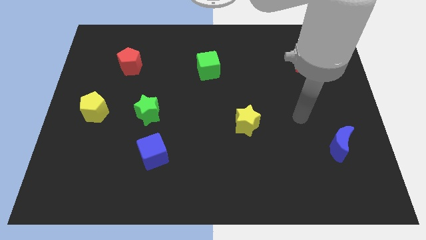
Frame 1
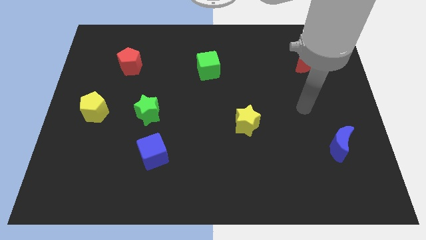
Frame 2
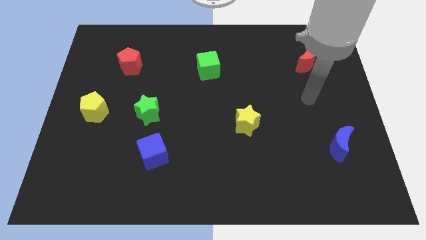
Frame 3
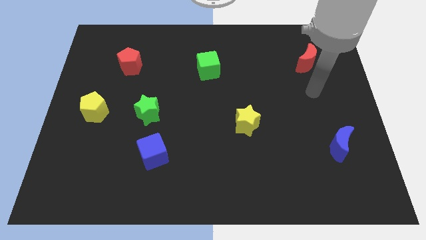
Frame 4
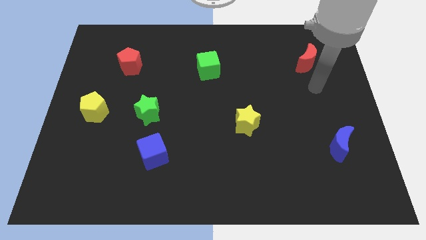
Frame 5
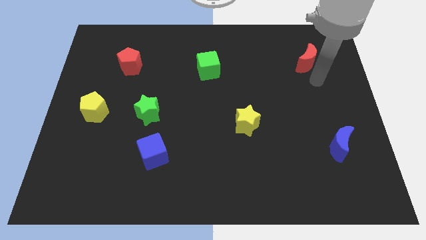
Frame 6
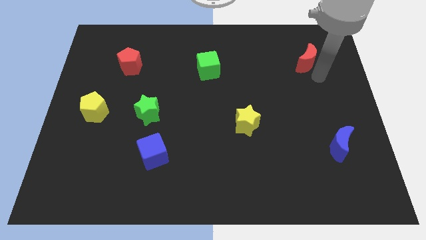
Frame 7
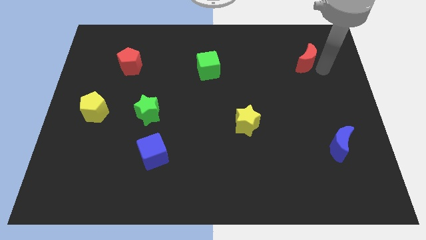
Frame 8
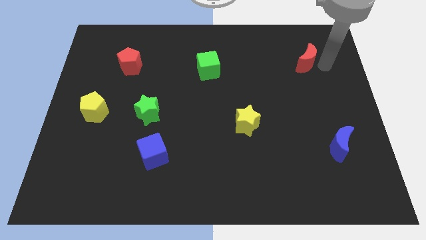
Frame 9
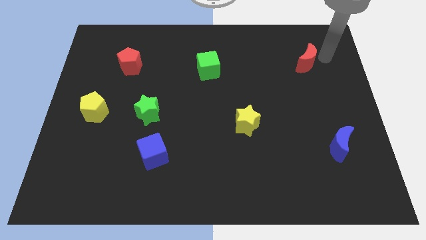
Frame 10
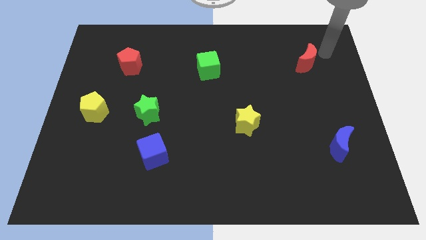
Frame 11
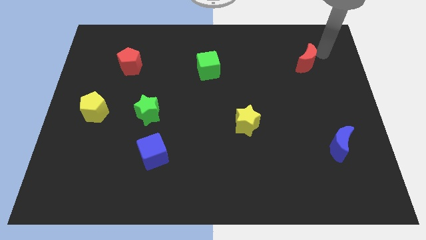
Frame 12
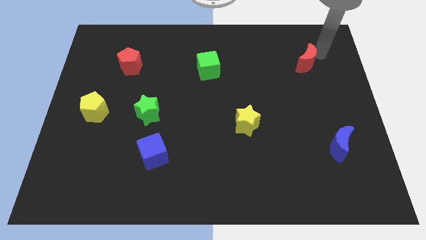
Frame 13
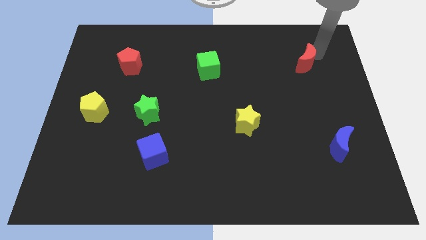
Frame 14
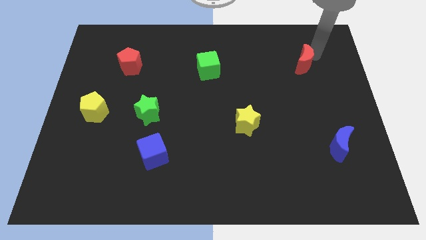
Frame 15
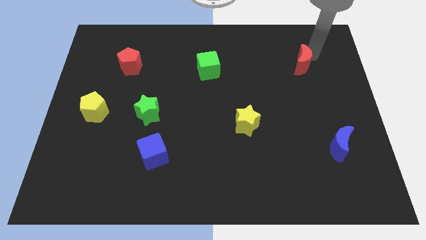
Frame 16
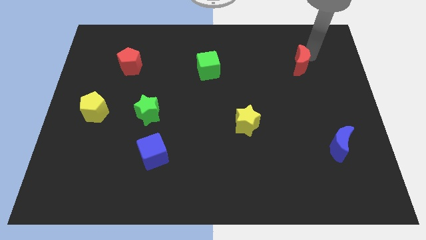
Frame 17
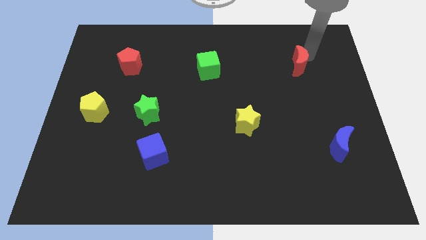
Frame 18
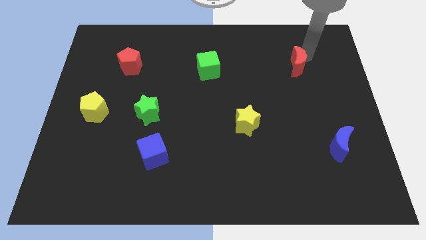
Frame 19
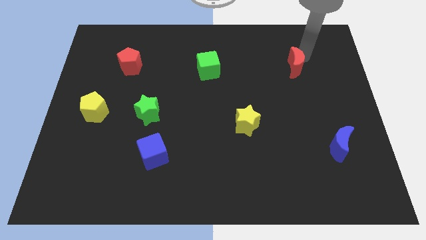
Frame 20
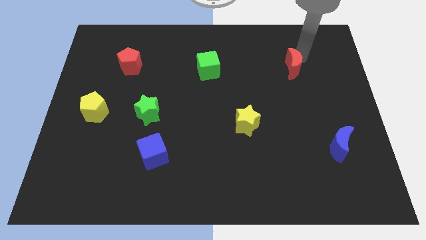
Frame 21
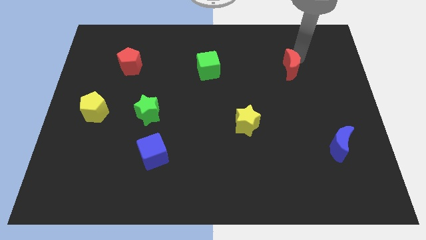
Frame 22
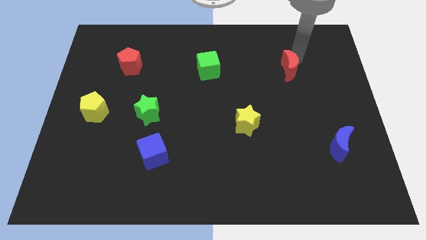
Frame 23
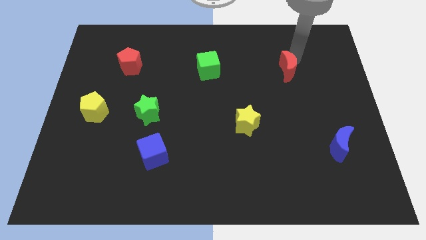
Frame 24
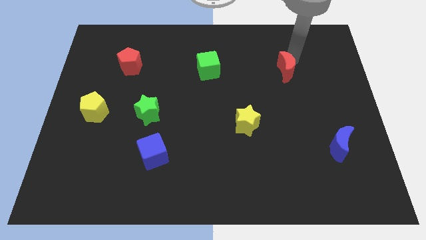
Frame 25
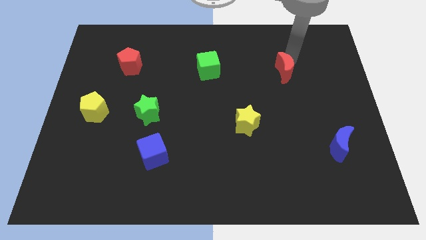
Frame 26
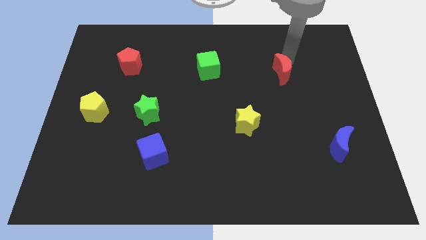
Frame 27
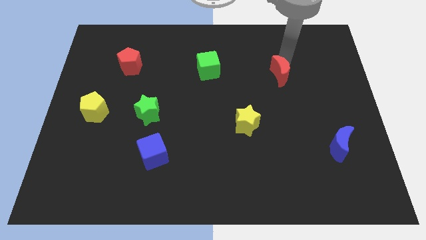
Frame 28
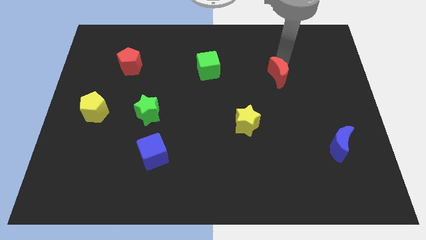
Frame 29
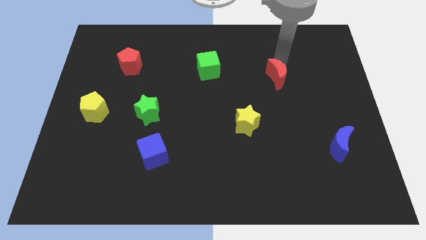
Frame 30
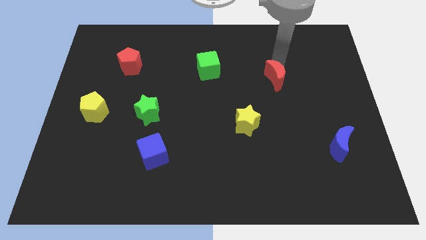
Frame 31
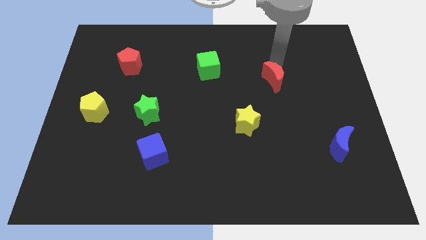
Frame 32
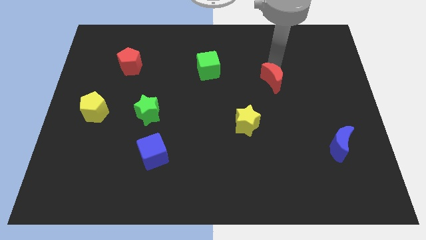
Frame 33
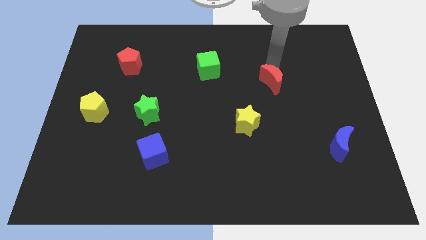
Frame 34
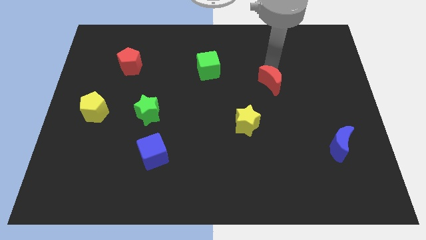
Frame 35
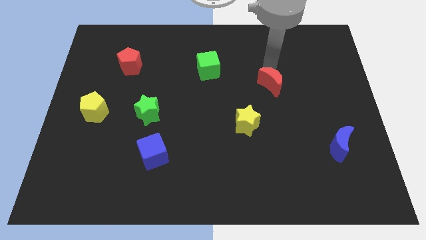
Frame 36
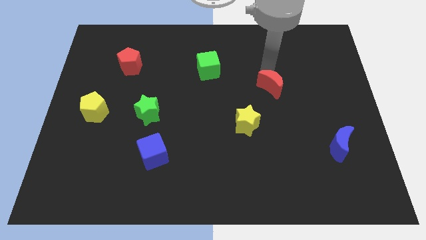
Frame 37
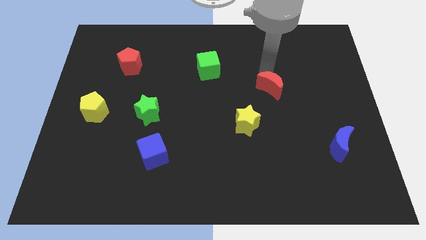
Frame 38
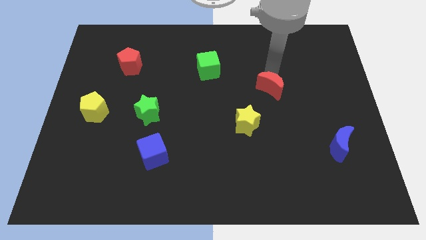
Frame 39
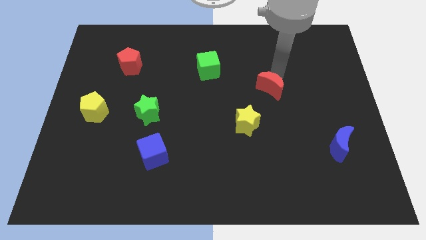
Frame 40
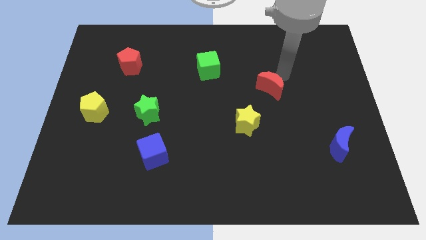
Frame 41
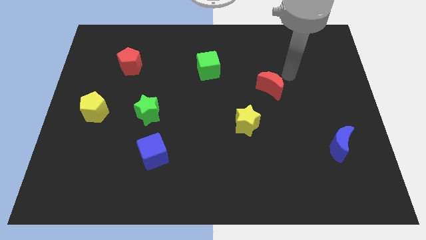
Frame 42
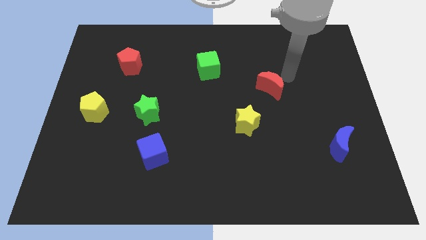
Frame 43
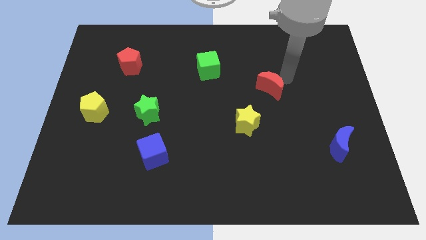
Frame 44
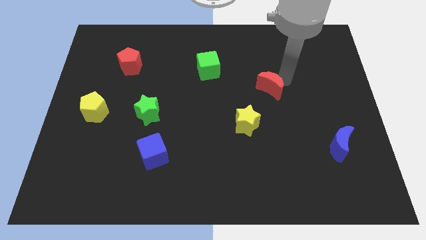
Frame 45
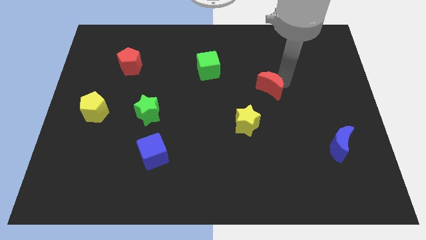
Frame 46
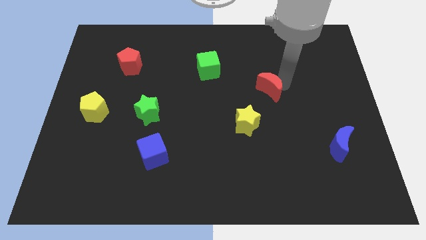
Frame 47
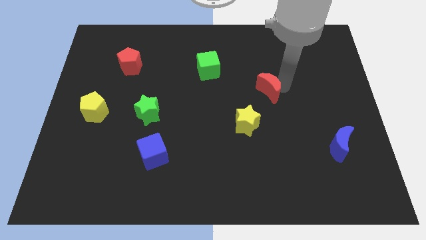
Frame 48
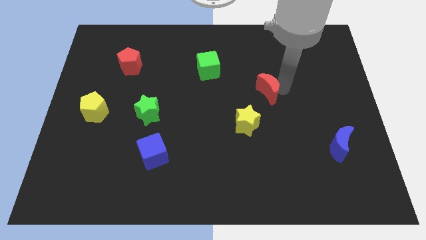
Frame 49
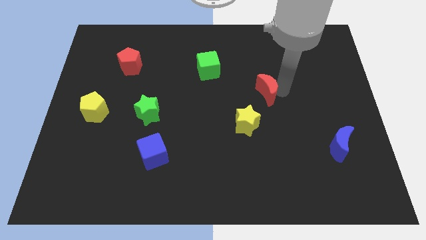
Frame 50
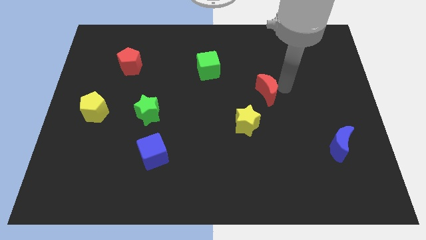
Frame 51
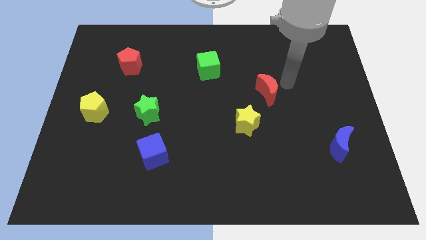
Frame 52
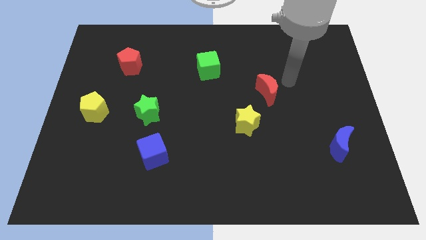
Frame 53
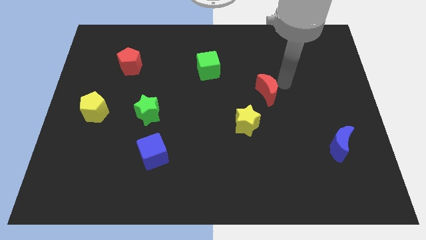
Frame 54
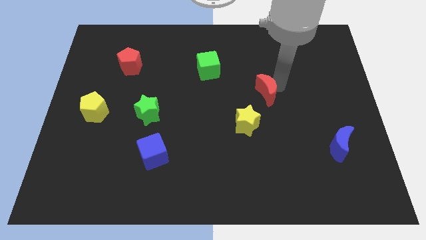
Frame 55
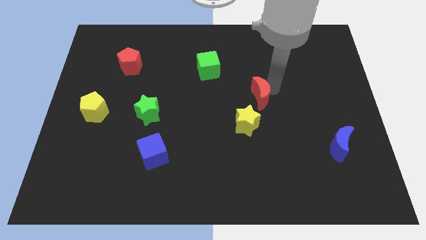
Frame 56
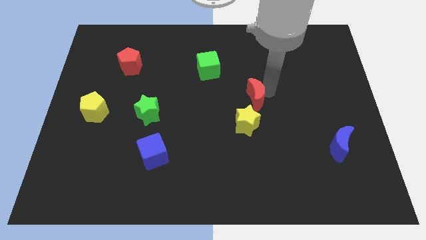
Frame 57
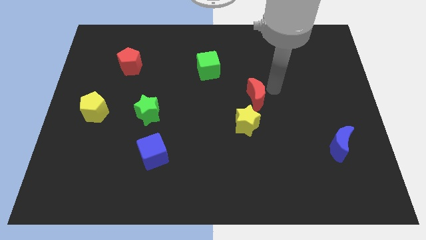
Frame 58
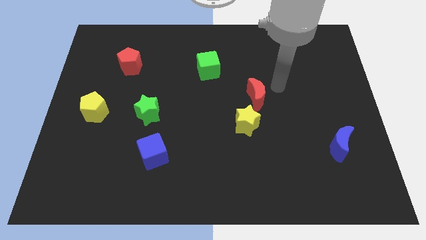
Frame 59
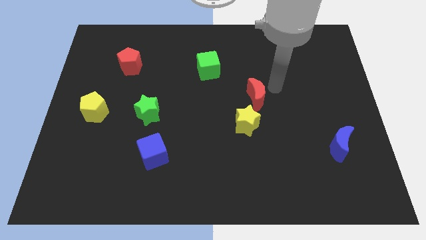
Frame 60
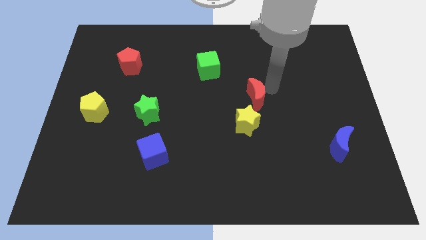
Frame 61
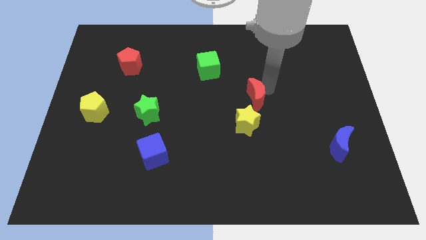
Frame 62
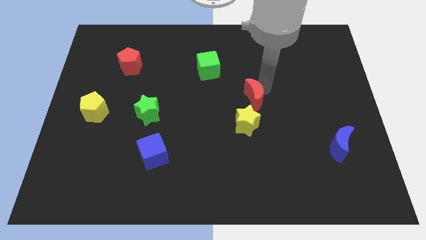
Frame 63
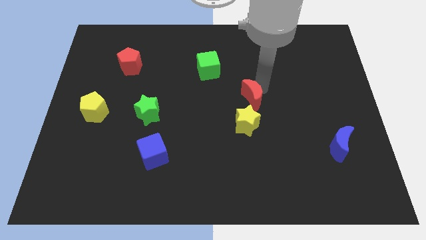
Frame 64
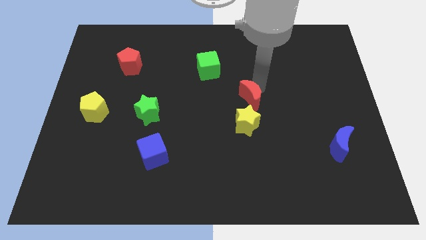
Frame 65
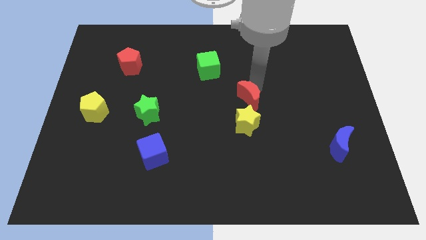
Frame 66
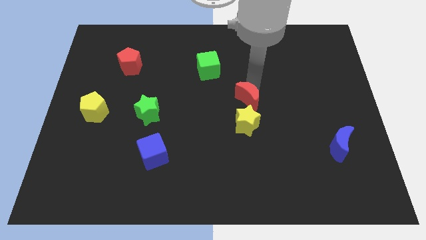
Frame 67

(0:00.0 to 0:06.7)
push the red moon downwards and then to the left

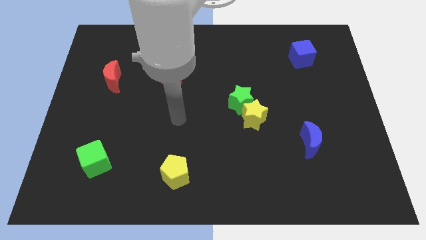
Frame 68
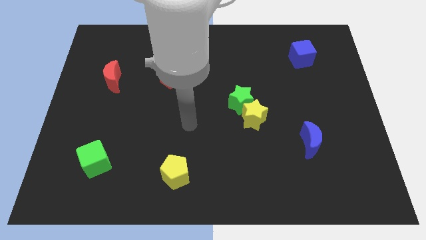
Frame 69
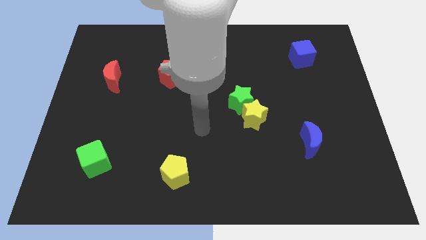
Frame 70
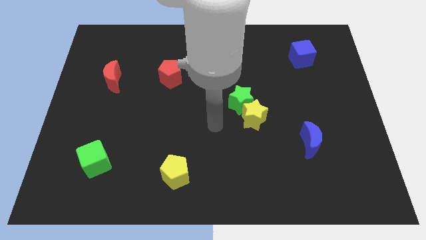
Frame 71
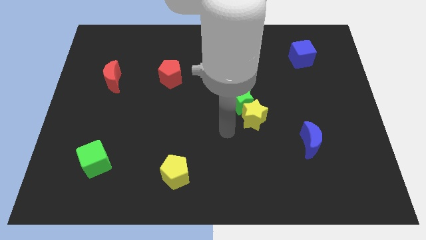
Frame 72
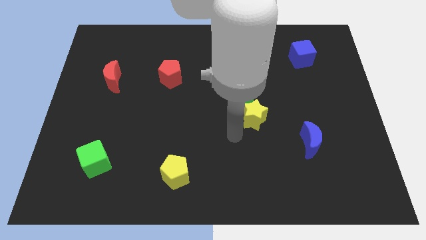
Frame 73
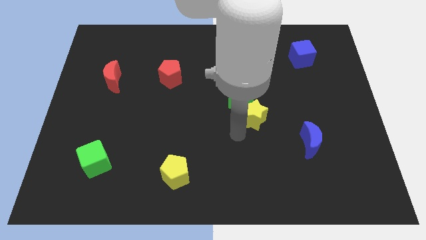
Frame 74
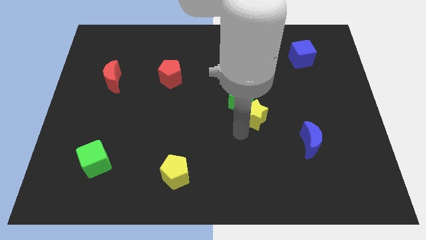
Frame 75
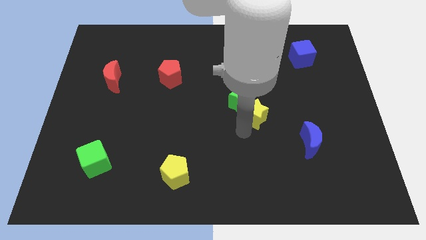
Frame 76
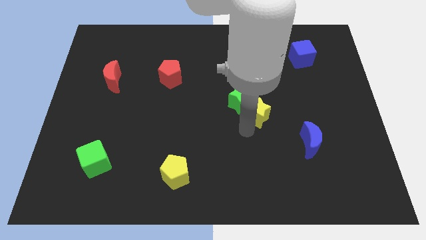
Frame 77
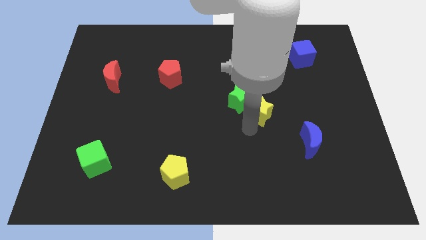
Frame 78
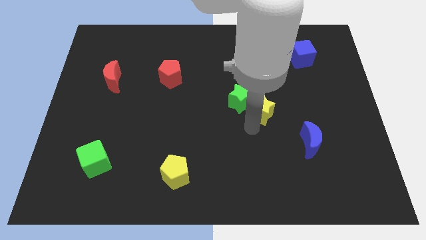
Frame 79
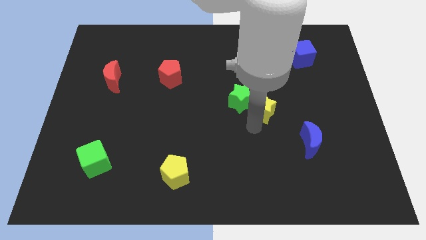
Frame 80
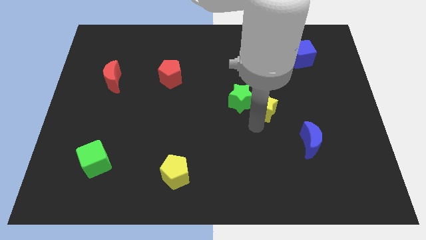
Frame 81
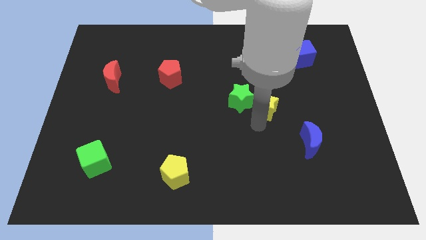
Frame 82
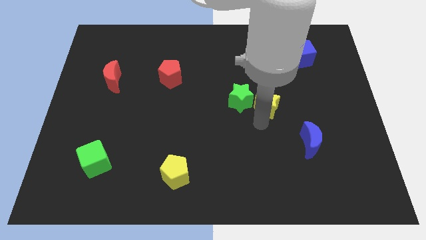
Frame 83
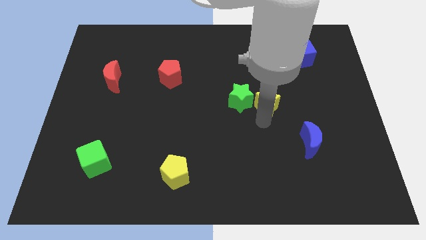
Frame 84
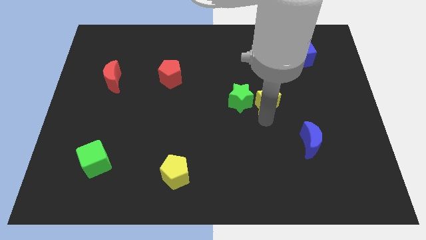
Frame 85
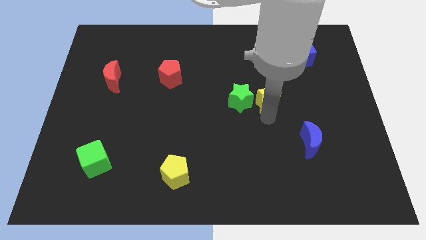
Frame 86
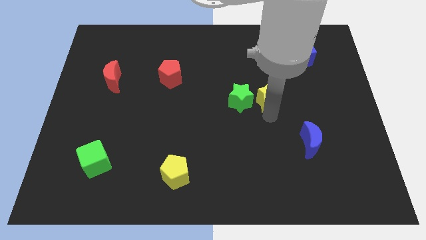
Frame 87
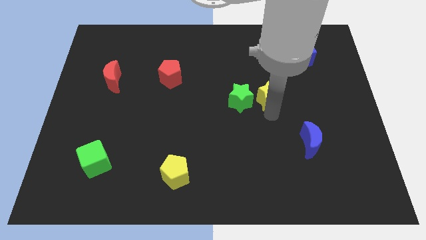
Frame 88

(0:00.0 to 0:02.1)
slide the yellow star a little up and to the right diagonally
